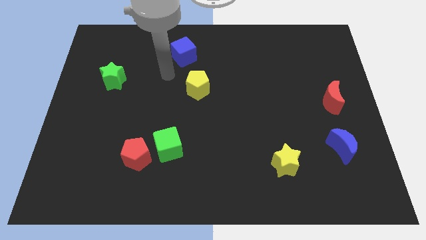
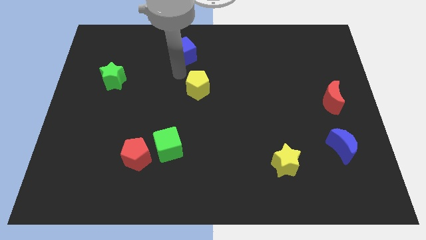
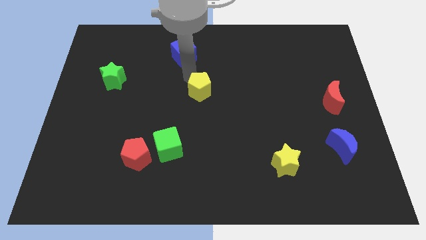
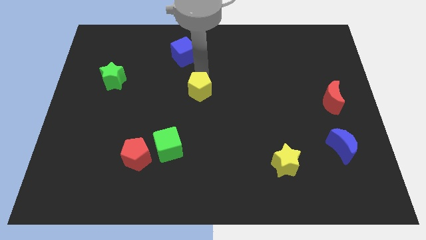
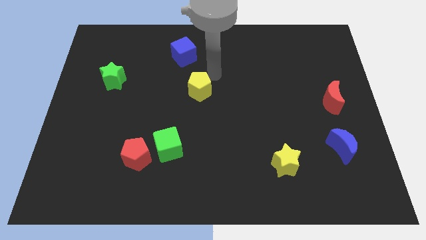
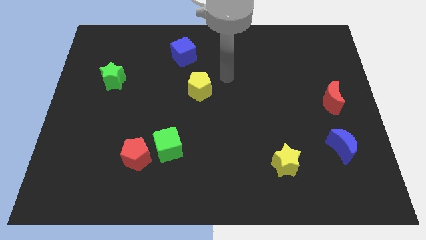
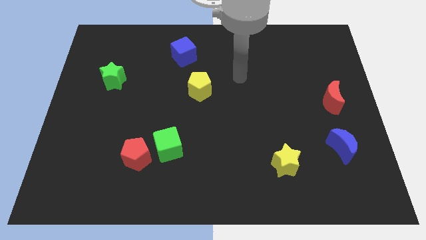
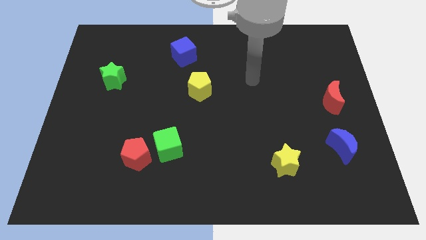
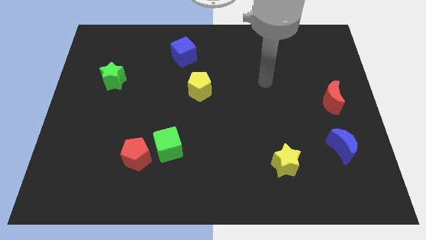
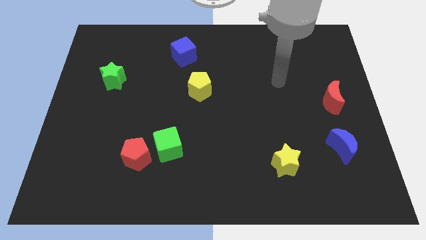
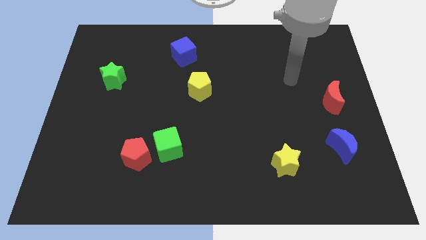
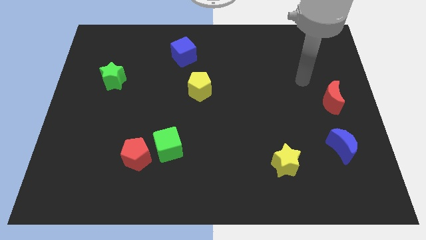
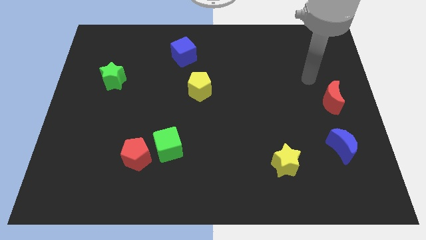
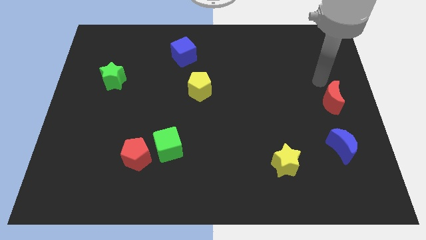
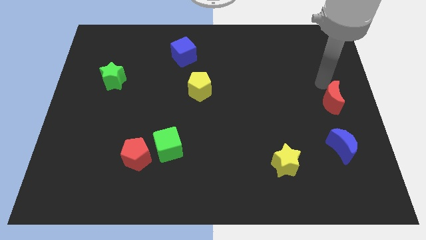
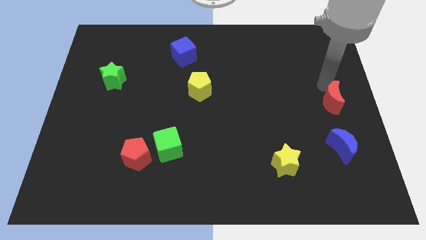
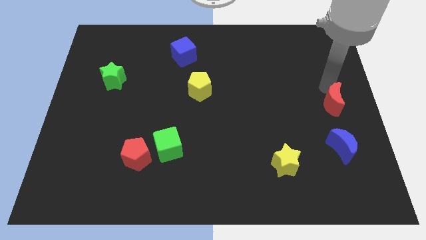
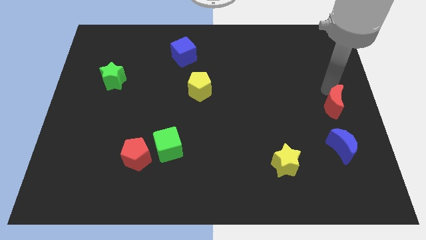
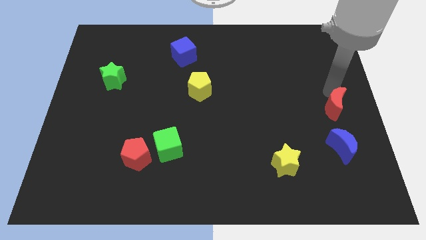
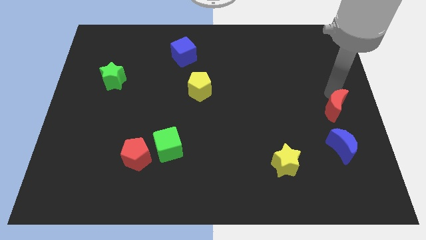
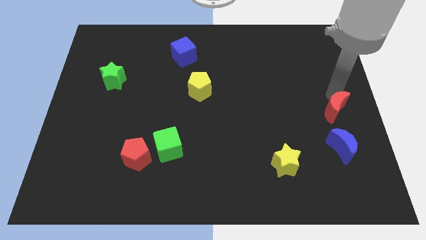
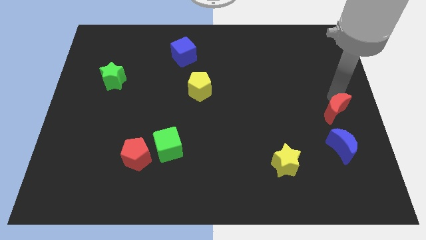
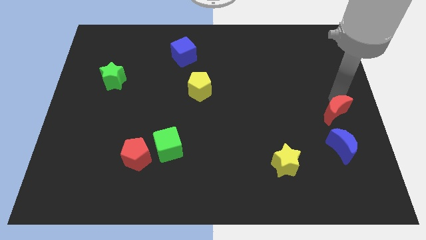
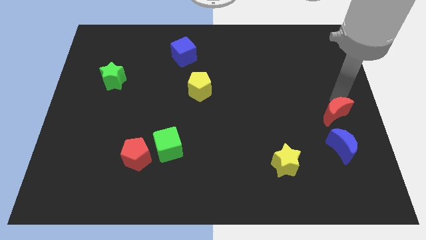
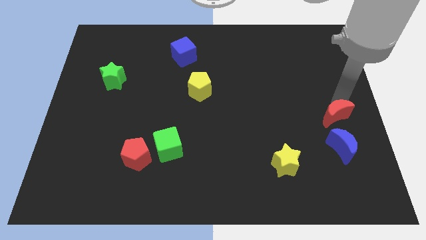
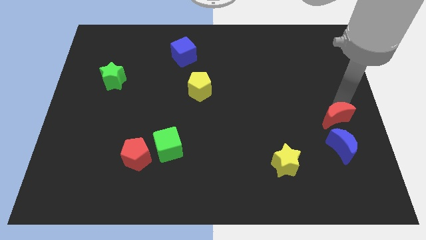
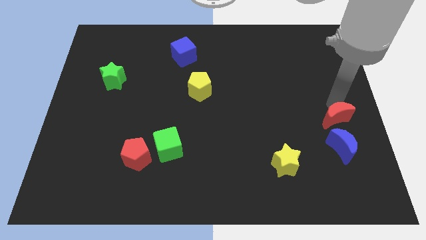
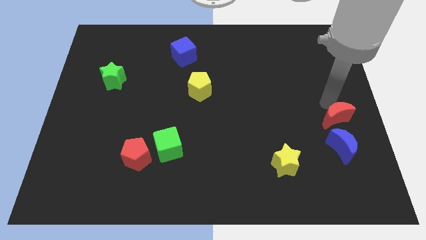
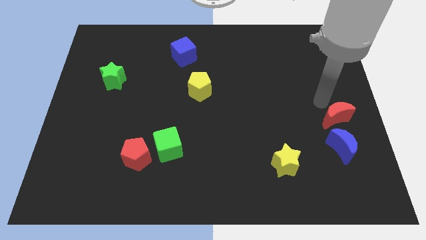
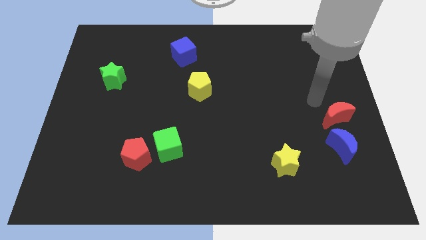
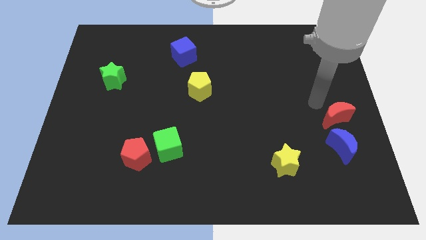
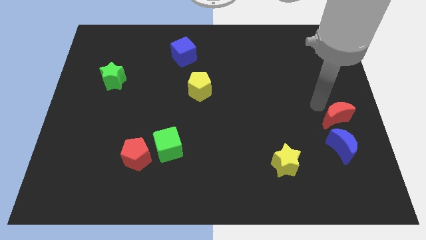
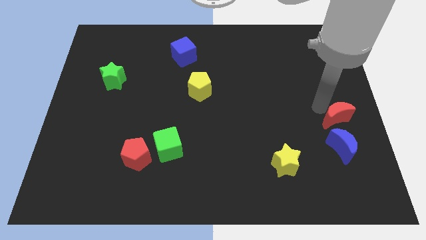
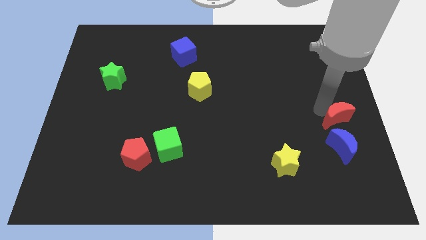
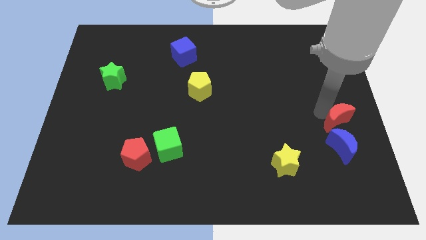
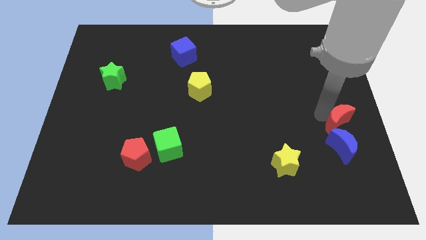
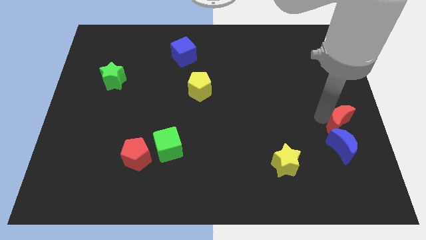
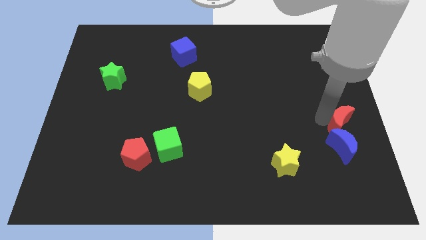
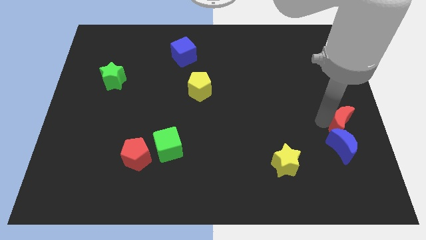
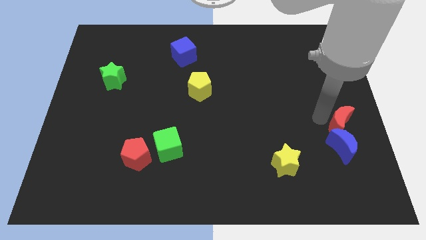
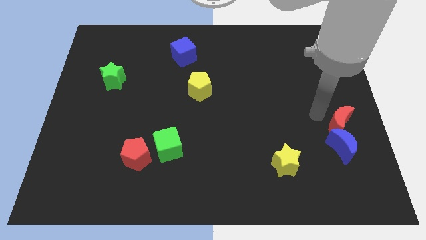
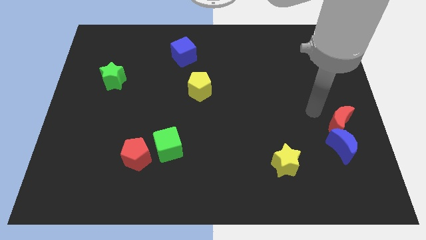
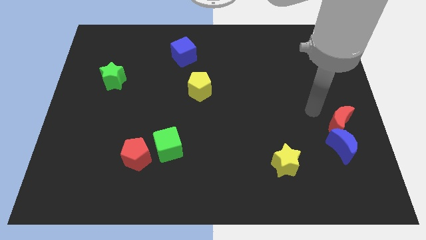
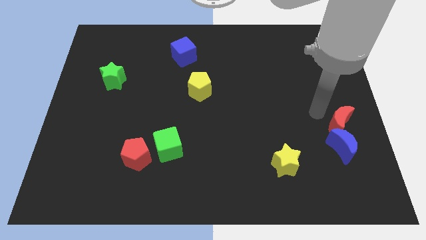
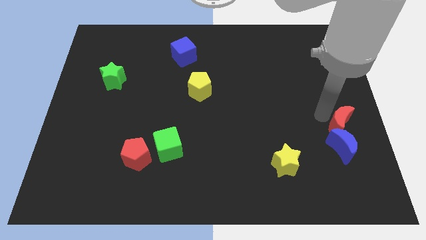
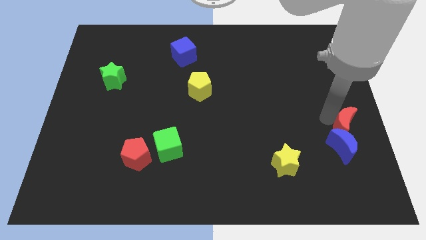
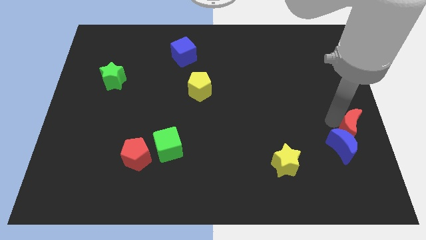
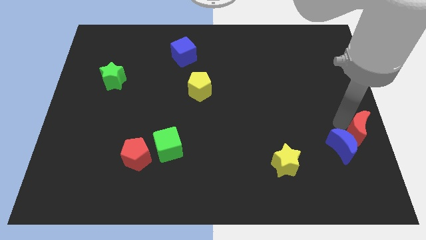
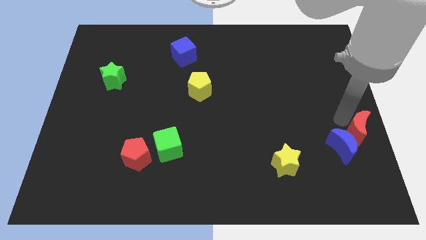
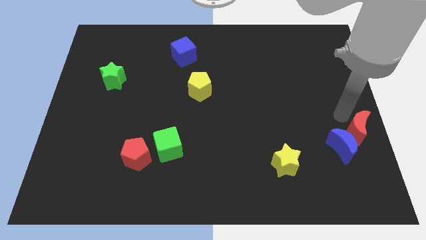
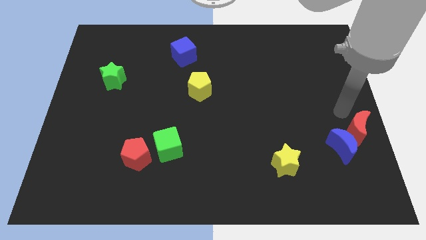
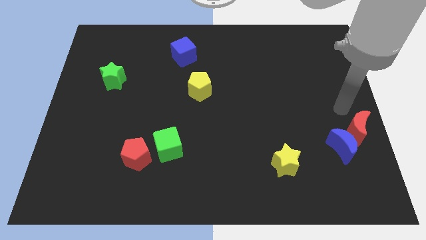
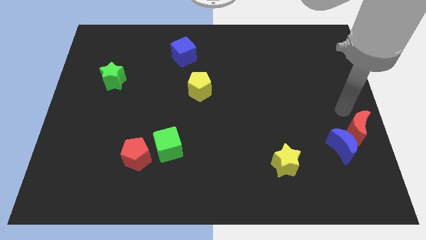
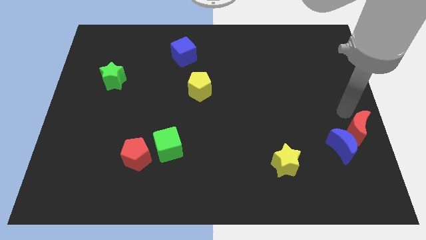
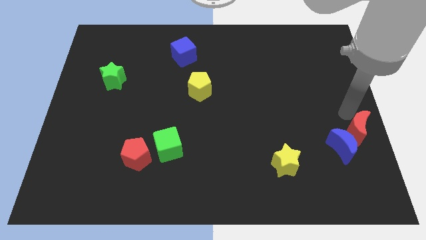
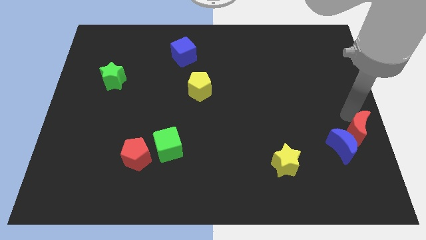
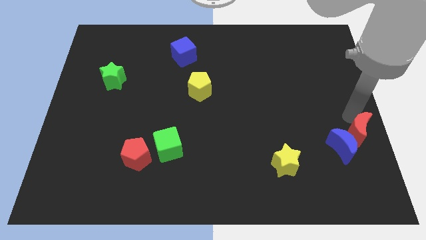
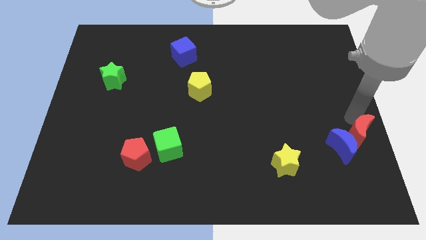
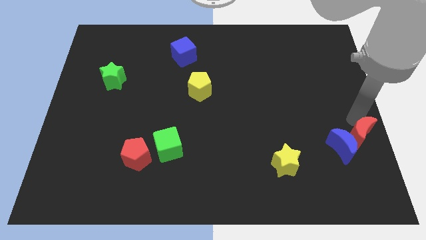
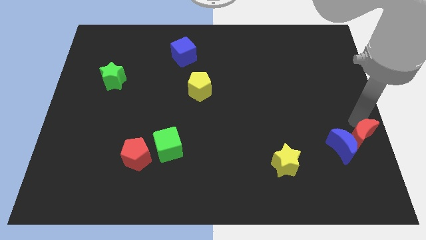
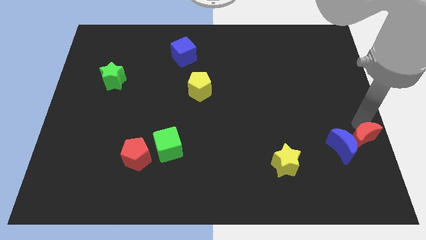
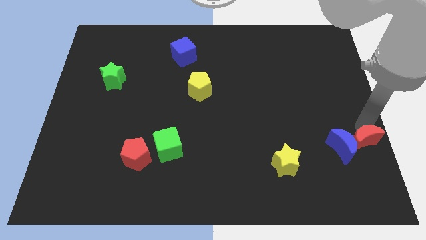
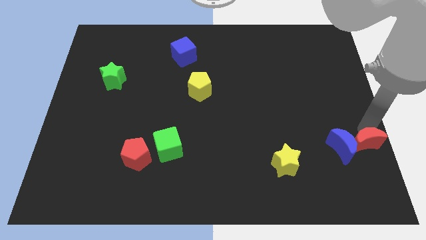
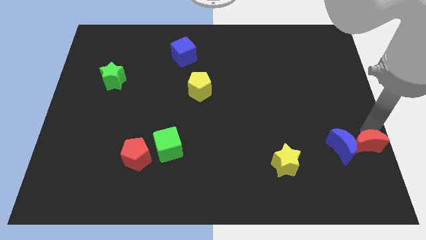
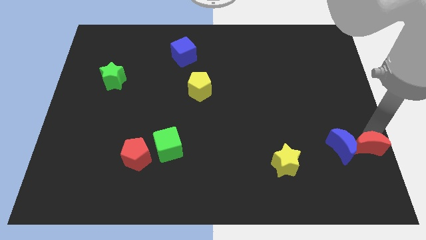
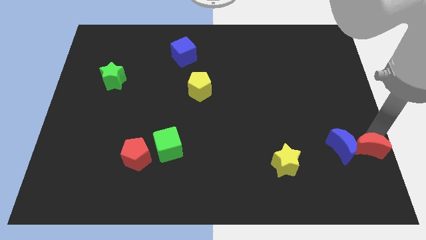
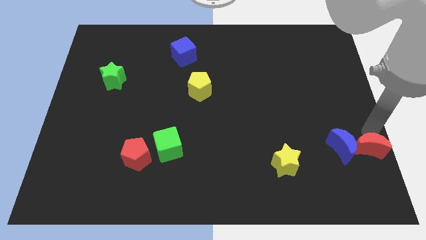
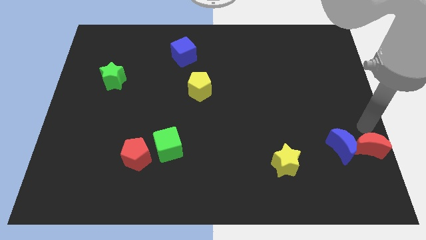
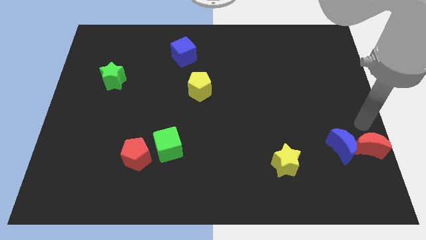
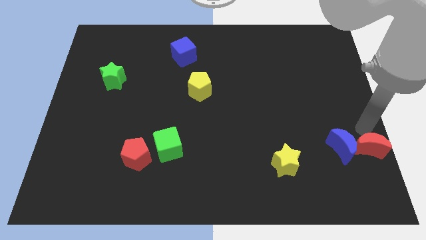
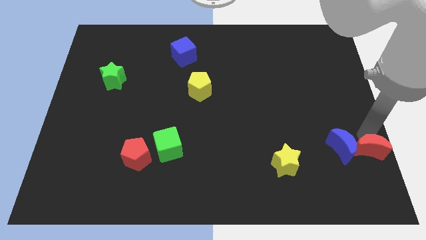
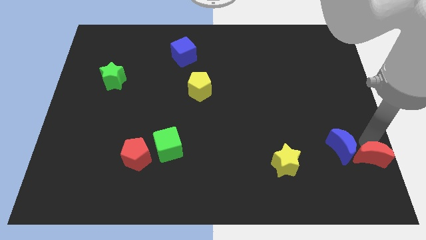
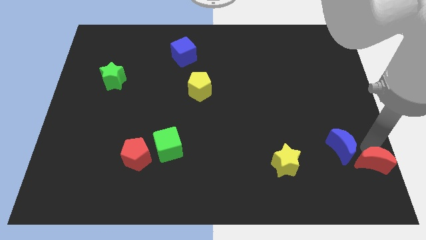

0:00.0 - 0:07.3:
slide the red moon to the bottom right corner
